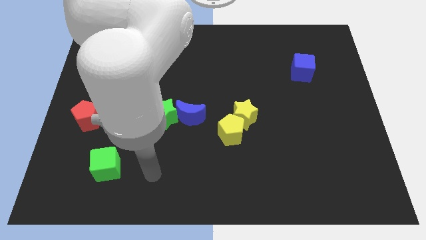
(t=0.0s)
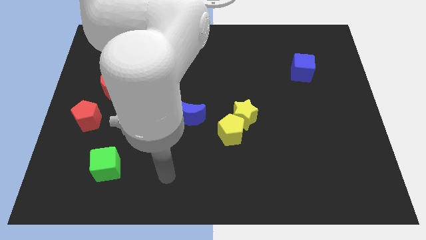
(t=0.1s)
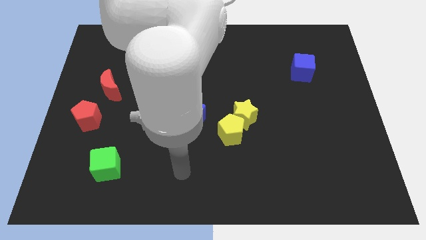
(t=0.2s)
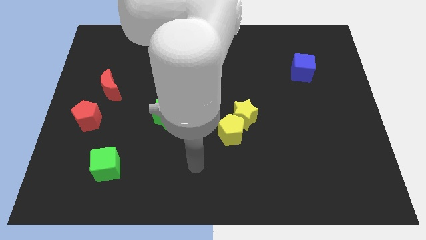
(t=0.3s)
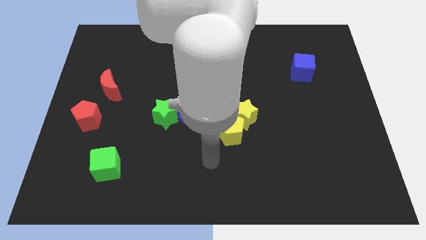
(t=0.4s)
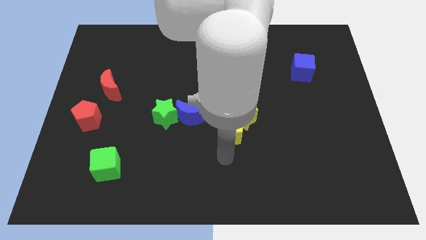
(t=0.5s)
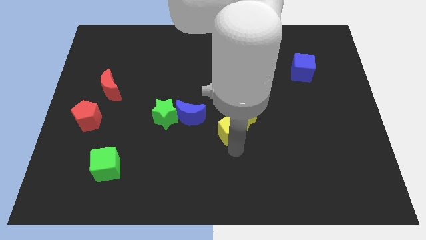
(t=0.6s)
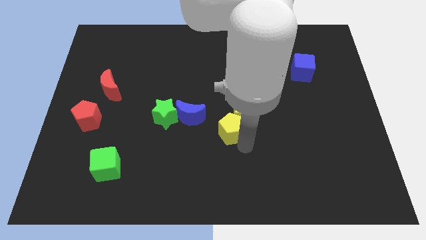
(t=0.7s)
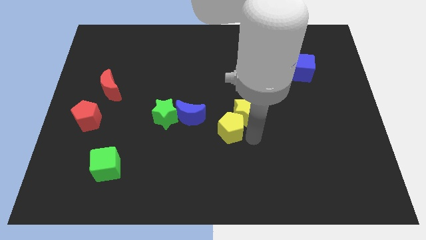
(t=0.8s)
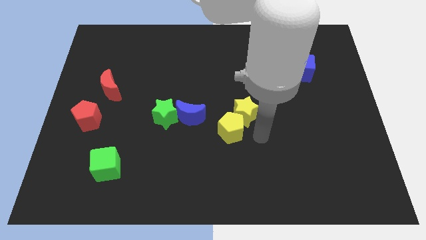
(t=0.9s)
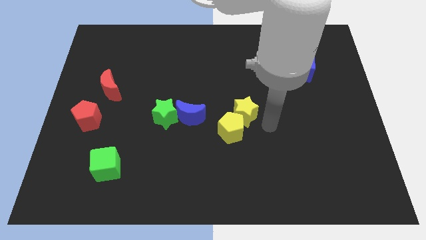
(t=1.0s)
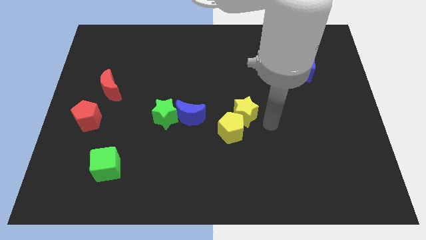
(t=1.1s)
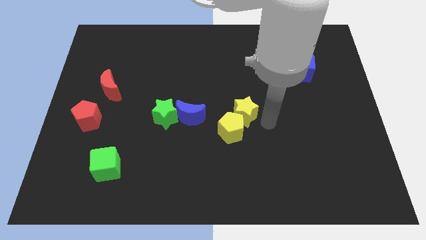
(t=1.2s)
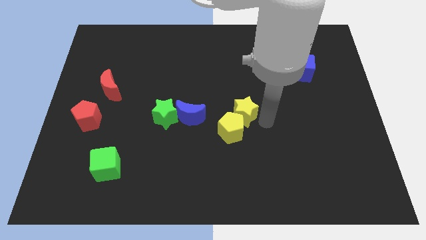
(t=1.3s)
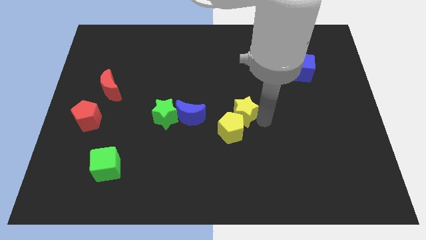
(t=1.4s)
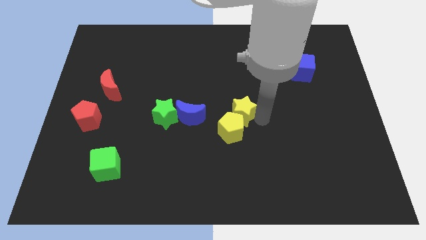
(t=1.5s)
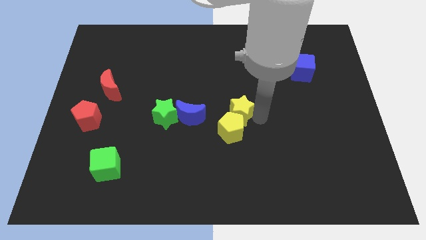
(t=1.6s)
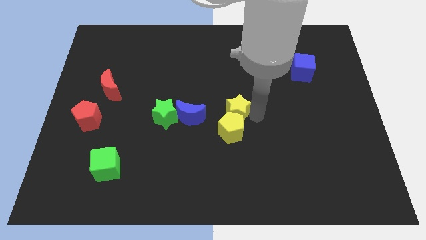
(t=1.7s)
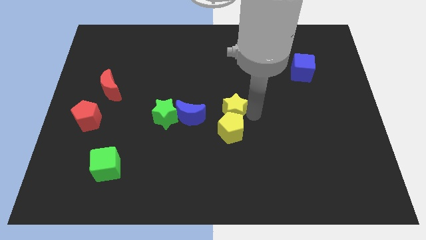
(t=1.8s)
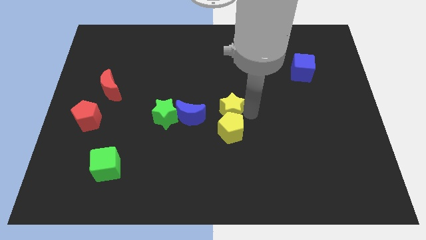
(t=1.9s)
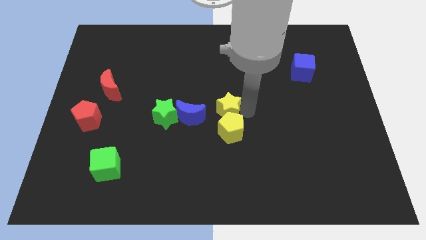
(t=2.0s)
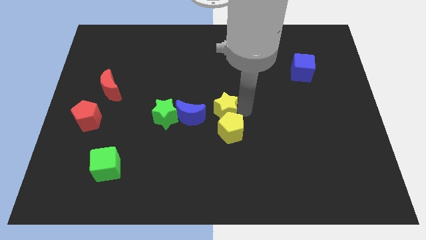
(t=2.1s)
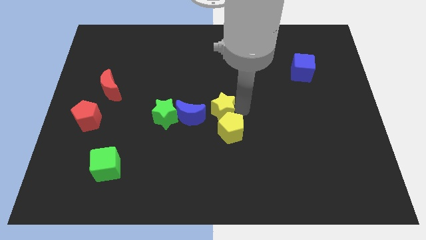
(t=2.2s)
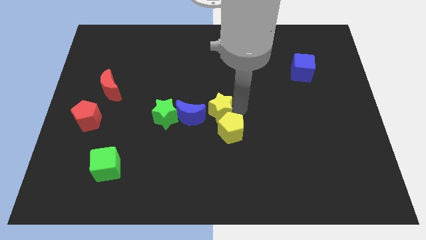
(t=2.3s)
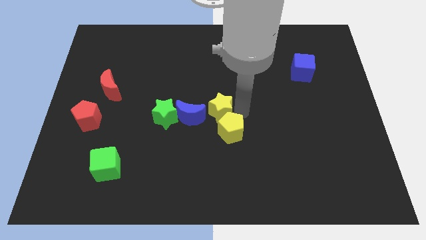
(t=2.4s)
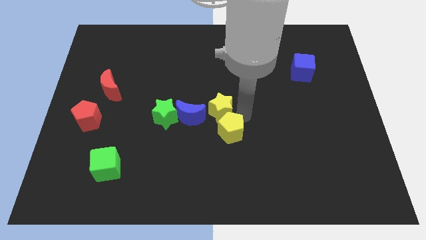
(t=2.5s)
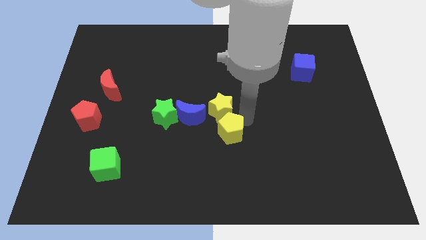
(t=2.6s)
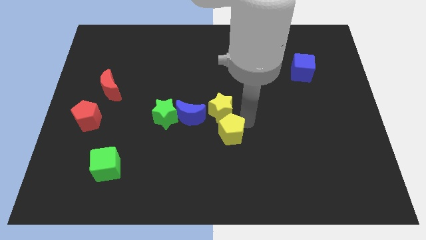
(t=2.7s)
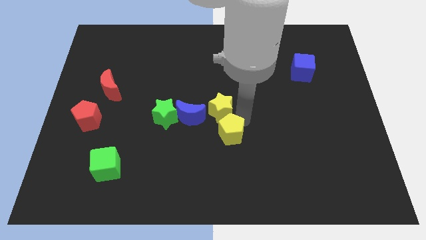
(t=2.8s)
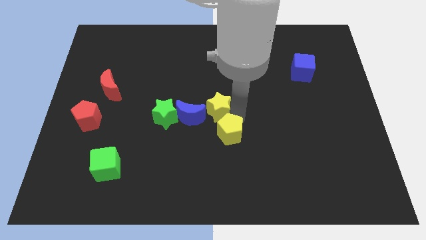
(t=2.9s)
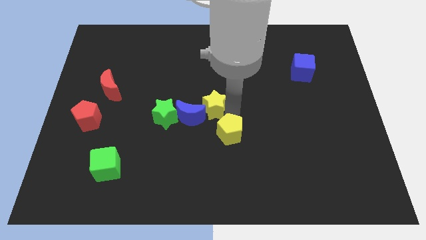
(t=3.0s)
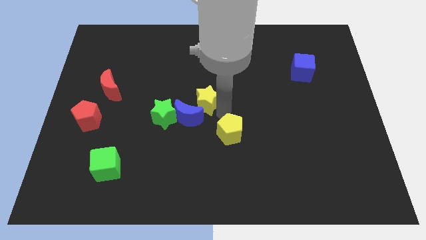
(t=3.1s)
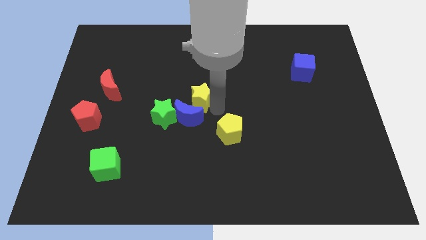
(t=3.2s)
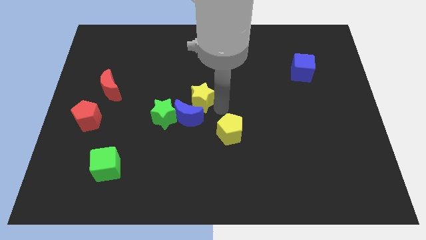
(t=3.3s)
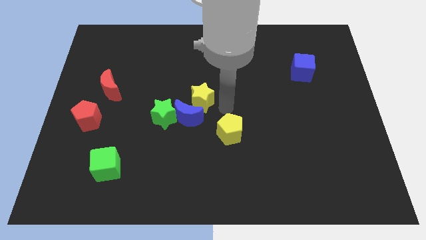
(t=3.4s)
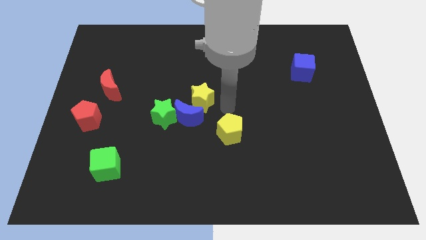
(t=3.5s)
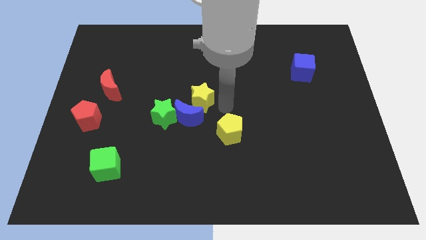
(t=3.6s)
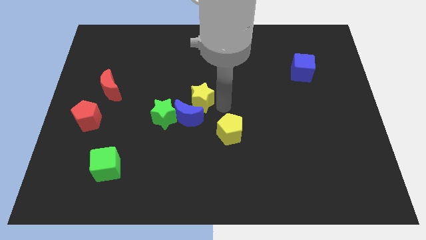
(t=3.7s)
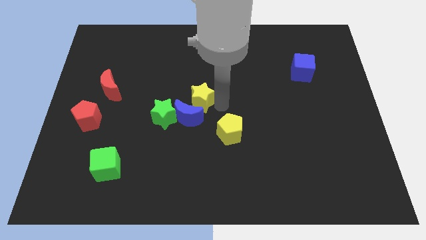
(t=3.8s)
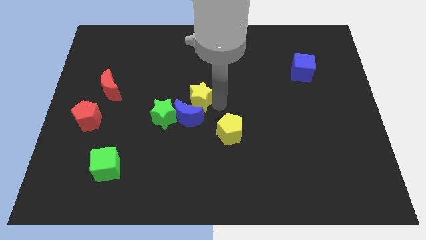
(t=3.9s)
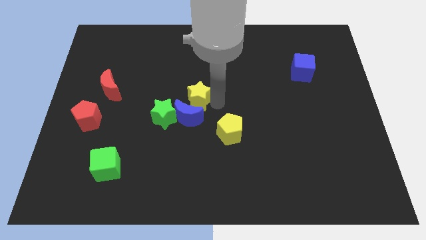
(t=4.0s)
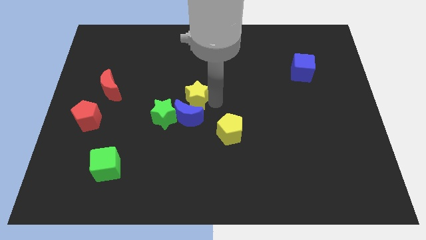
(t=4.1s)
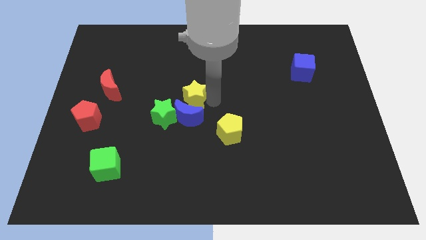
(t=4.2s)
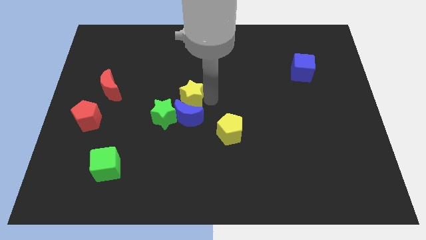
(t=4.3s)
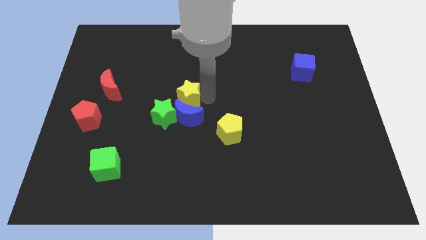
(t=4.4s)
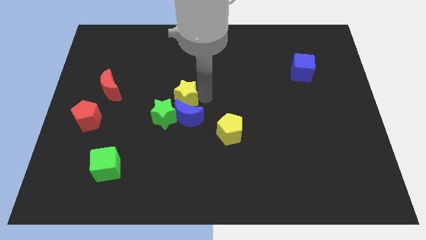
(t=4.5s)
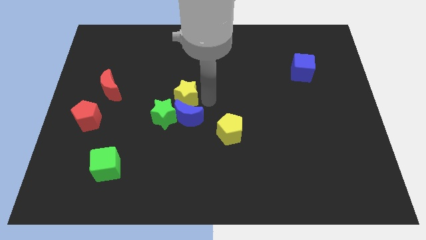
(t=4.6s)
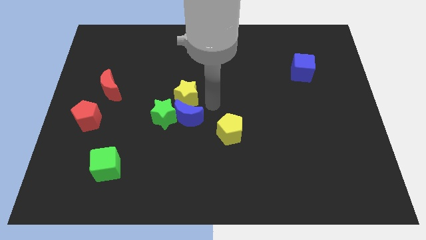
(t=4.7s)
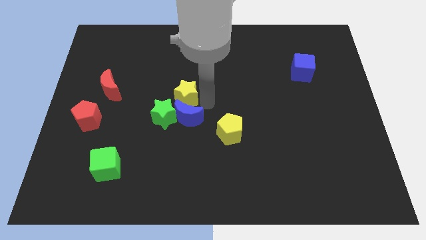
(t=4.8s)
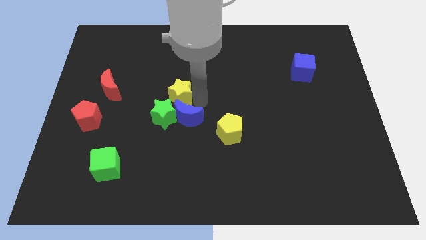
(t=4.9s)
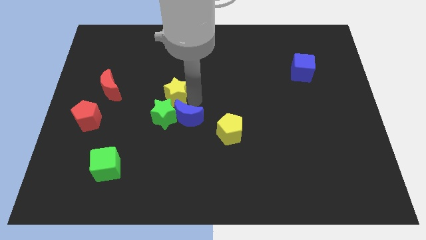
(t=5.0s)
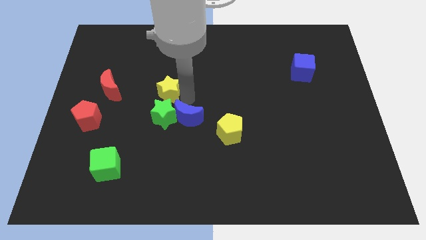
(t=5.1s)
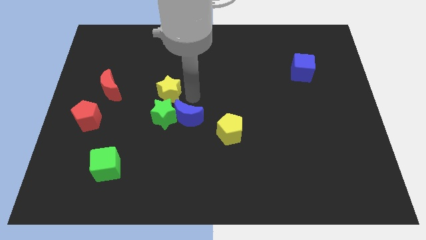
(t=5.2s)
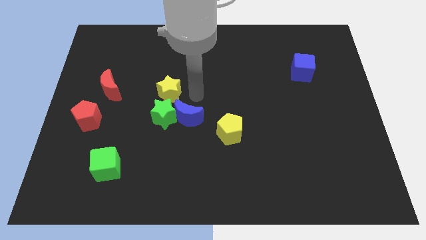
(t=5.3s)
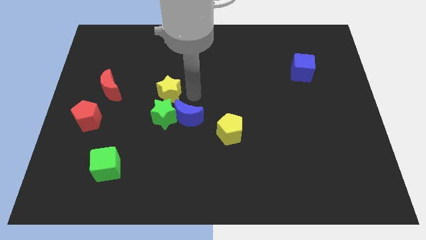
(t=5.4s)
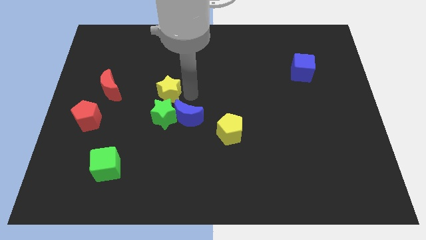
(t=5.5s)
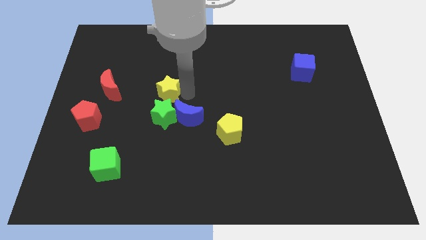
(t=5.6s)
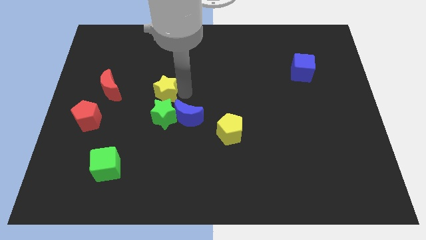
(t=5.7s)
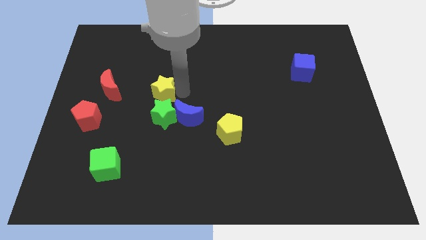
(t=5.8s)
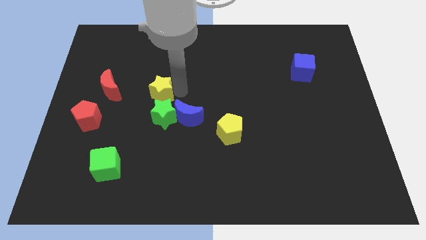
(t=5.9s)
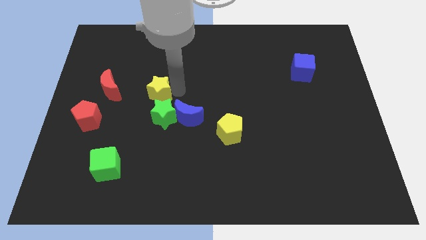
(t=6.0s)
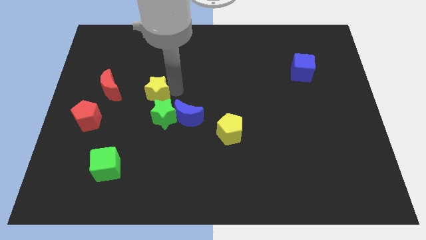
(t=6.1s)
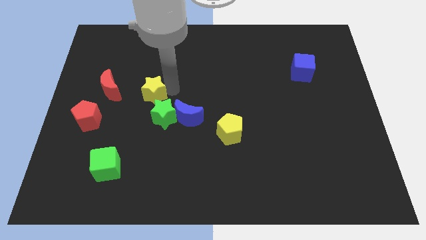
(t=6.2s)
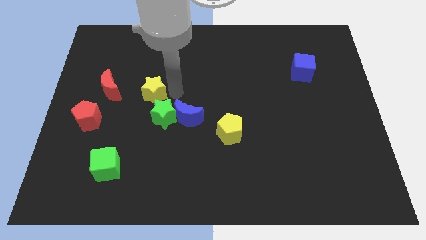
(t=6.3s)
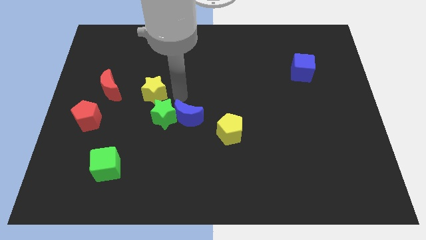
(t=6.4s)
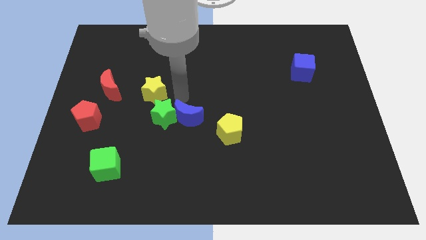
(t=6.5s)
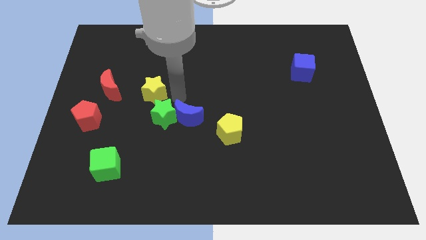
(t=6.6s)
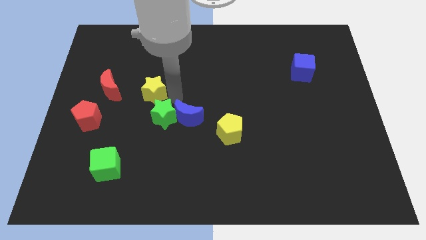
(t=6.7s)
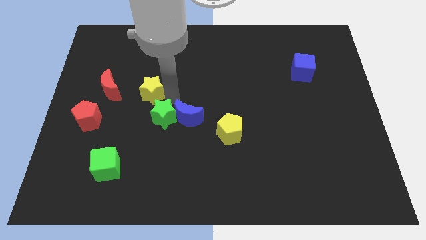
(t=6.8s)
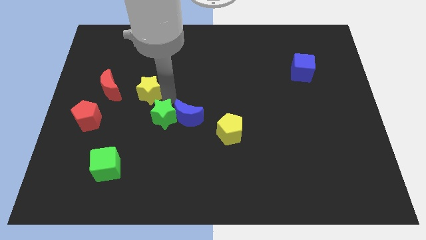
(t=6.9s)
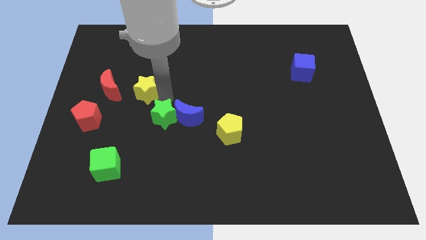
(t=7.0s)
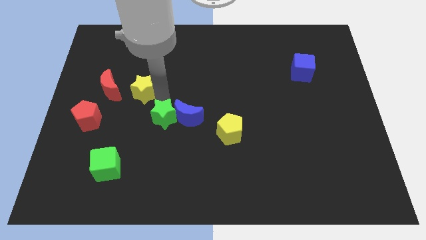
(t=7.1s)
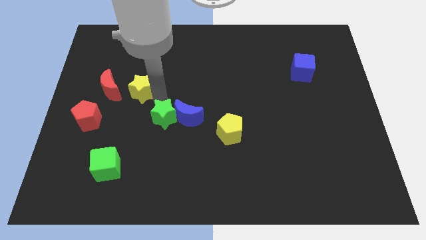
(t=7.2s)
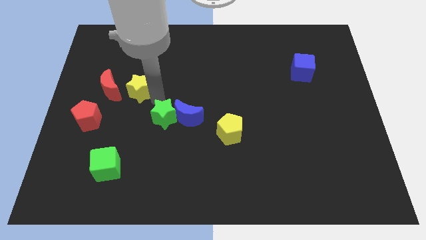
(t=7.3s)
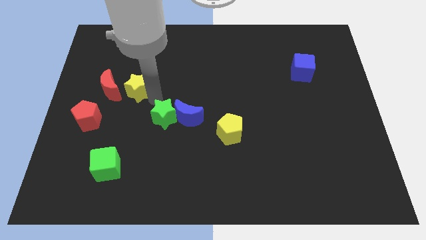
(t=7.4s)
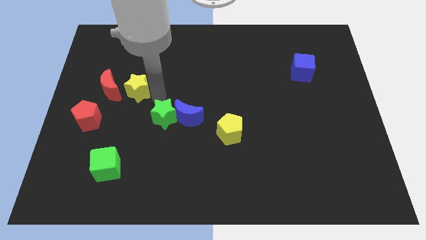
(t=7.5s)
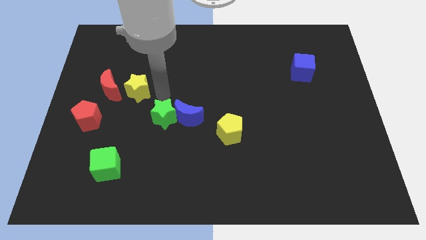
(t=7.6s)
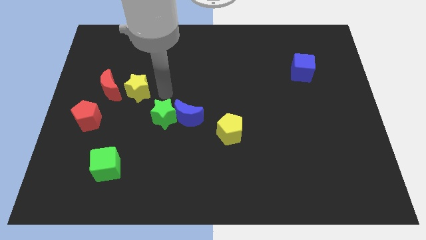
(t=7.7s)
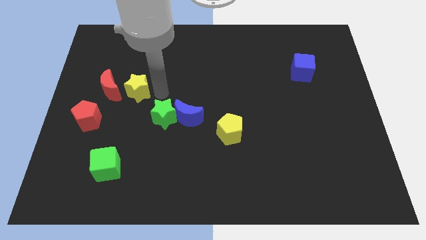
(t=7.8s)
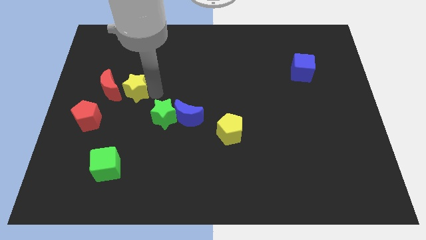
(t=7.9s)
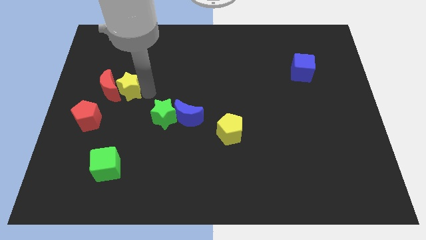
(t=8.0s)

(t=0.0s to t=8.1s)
push the yellow star next to the red moon
